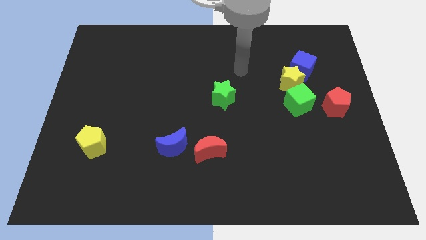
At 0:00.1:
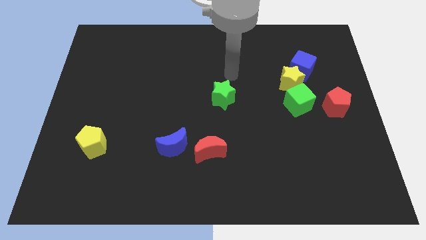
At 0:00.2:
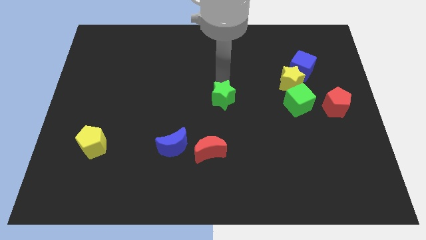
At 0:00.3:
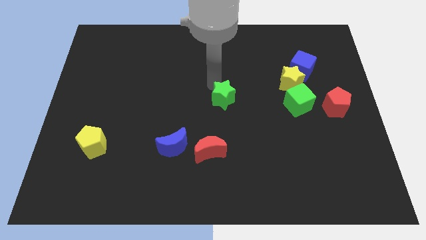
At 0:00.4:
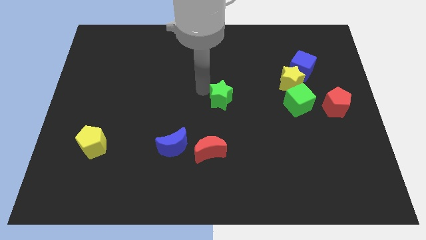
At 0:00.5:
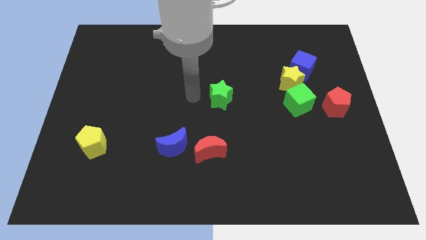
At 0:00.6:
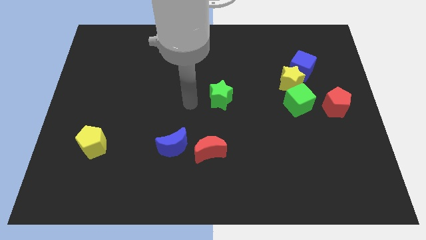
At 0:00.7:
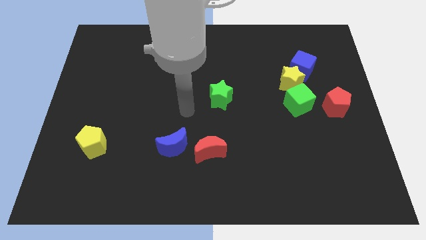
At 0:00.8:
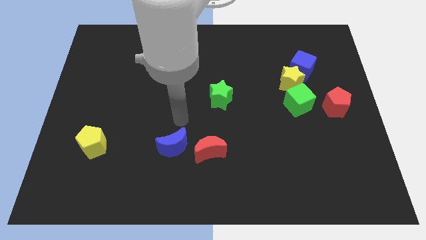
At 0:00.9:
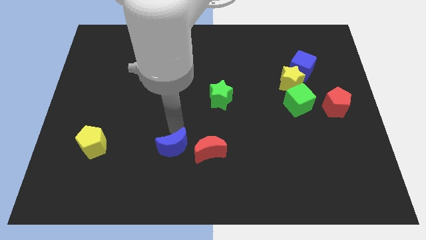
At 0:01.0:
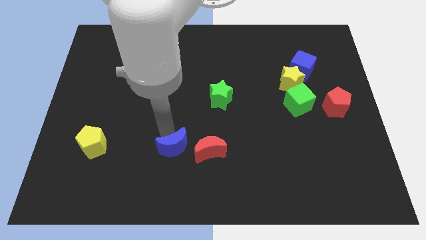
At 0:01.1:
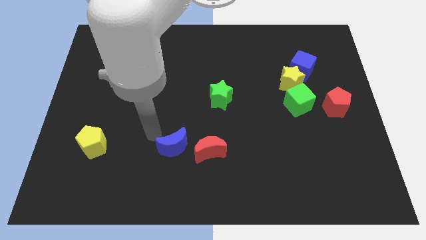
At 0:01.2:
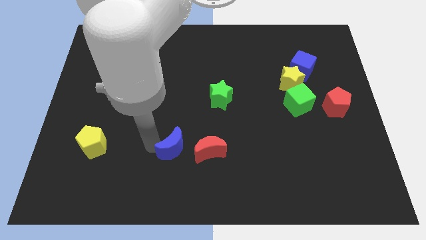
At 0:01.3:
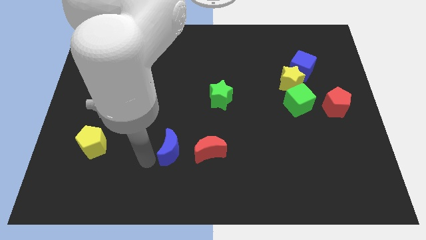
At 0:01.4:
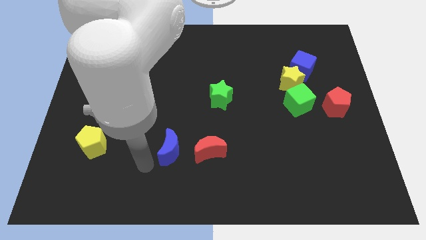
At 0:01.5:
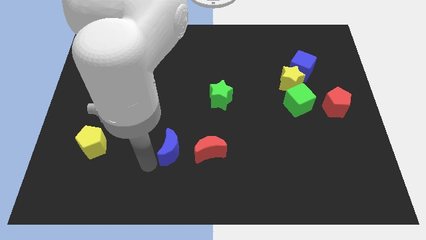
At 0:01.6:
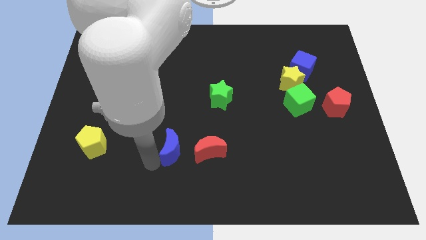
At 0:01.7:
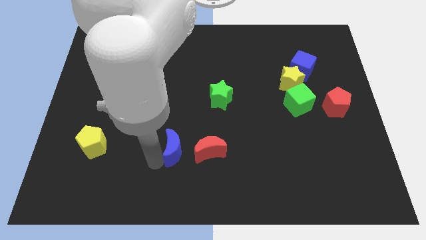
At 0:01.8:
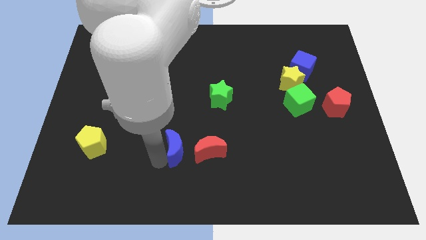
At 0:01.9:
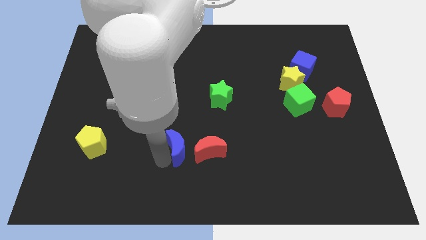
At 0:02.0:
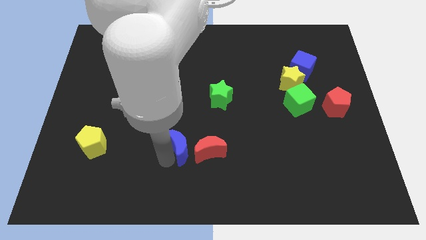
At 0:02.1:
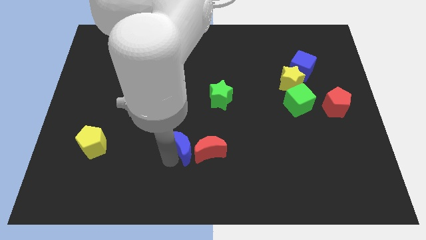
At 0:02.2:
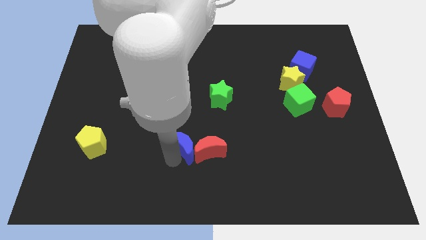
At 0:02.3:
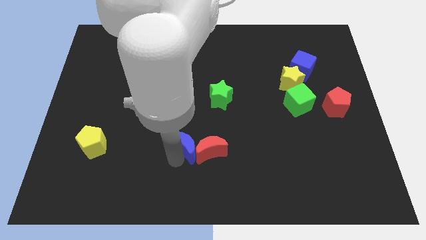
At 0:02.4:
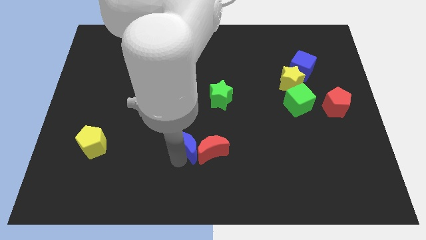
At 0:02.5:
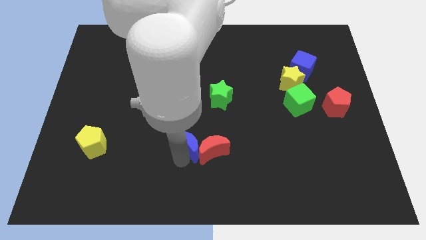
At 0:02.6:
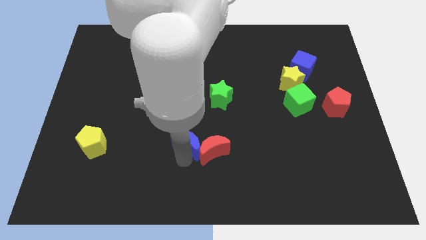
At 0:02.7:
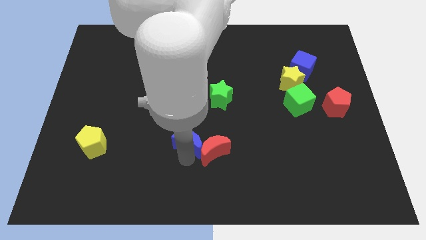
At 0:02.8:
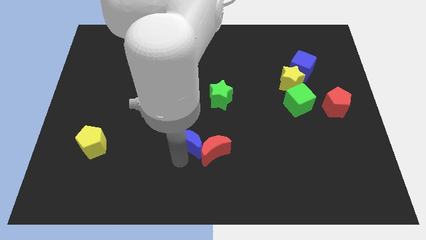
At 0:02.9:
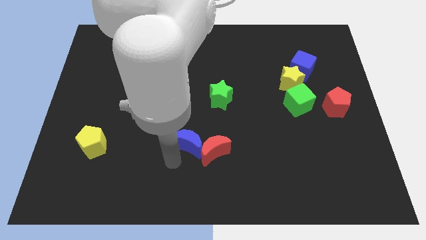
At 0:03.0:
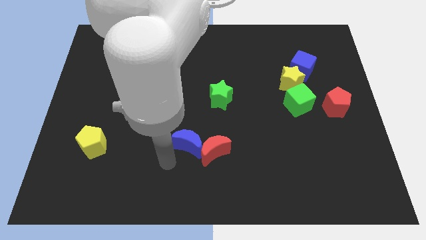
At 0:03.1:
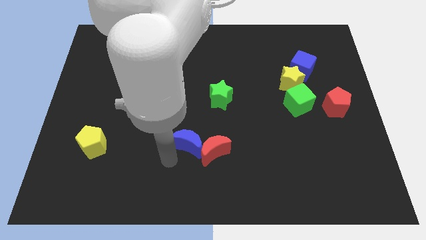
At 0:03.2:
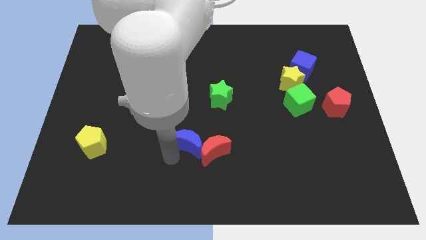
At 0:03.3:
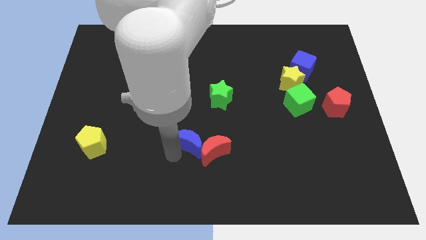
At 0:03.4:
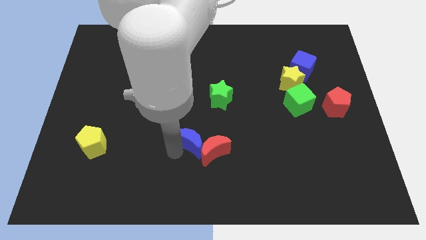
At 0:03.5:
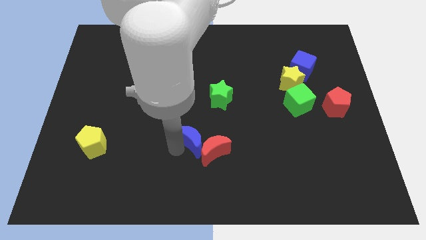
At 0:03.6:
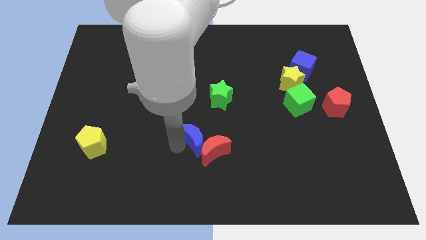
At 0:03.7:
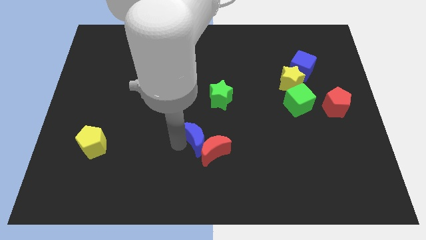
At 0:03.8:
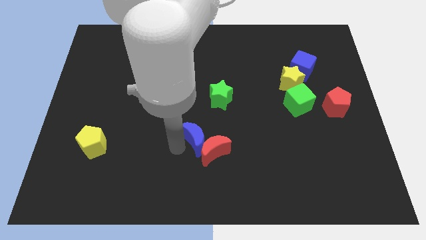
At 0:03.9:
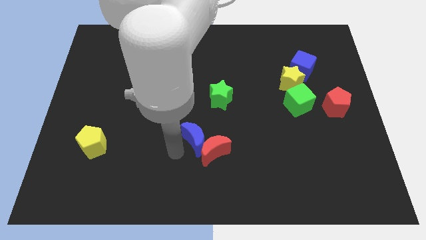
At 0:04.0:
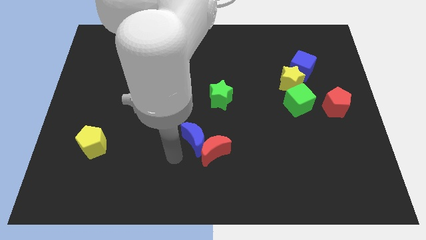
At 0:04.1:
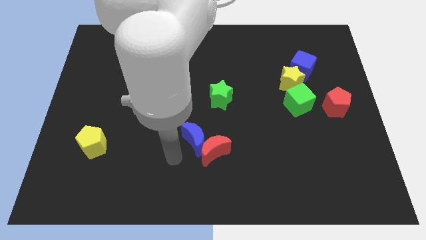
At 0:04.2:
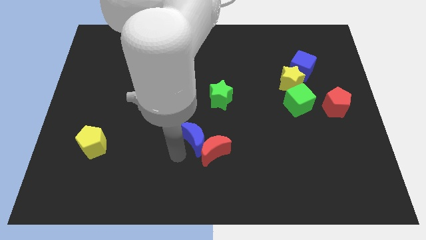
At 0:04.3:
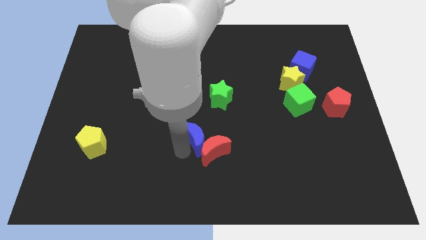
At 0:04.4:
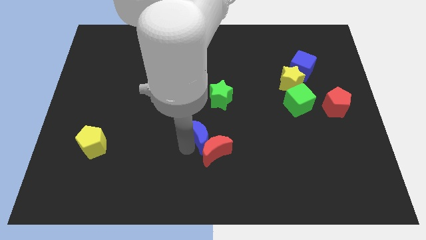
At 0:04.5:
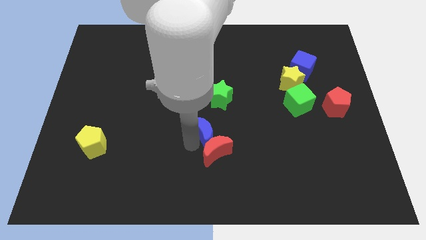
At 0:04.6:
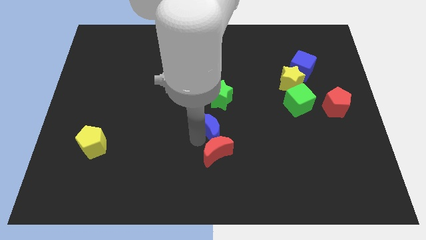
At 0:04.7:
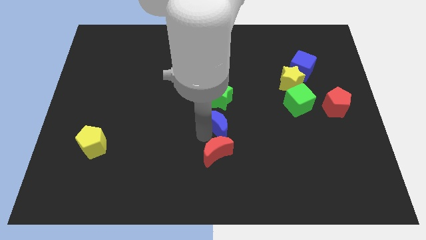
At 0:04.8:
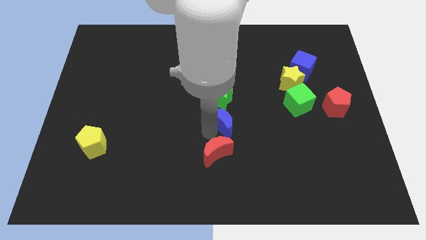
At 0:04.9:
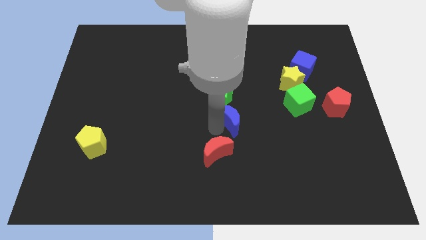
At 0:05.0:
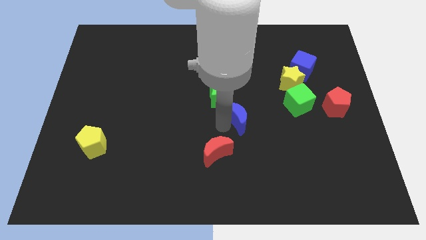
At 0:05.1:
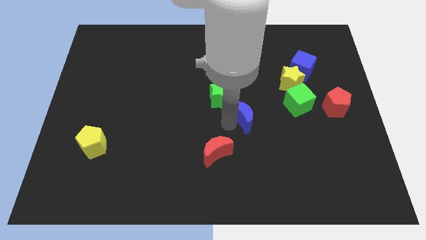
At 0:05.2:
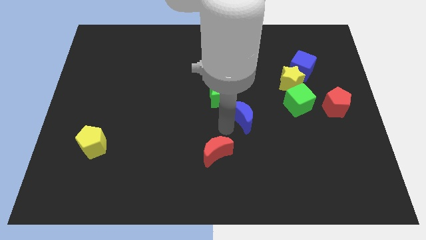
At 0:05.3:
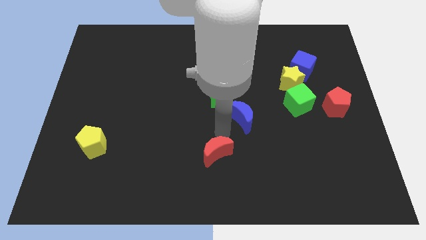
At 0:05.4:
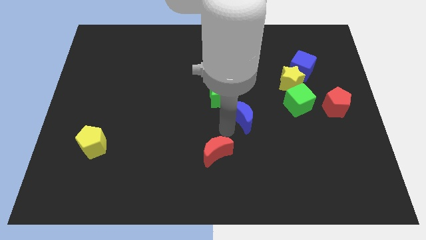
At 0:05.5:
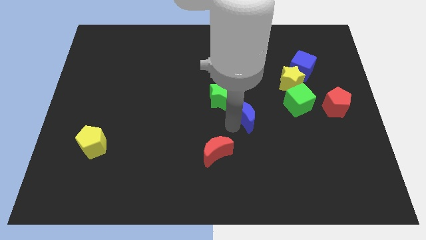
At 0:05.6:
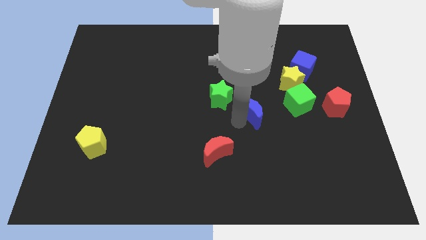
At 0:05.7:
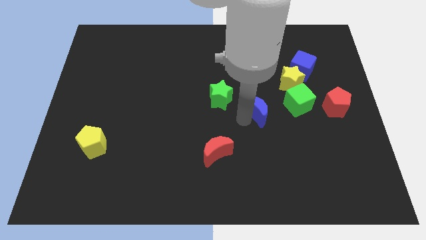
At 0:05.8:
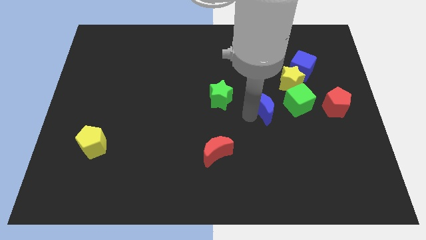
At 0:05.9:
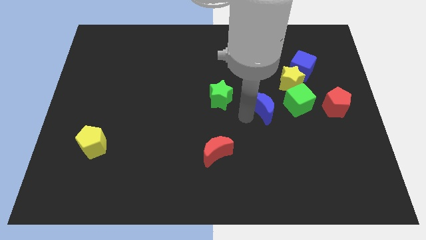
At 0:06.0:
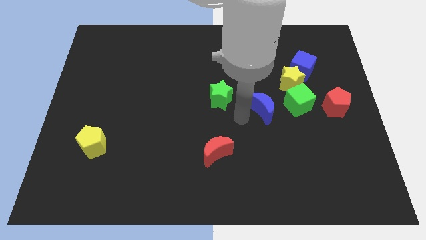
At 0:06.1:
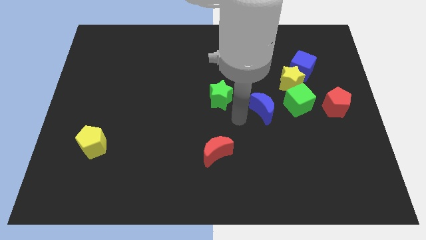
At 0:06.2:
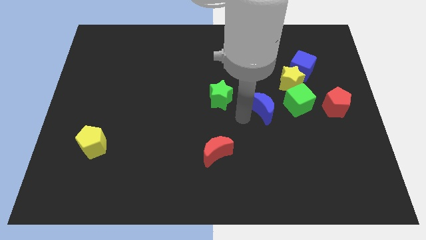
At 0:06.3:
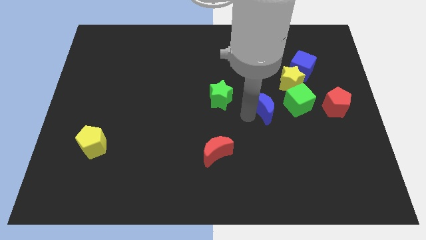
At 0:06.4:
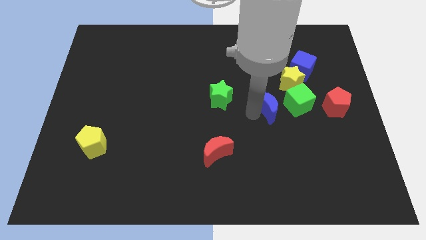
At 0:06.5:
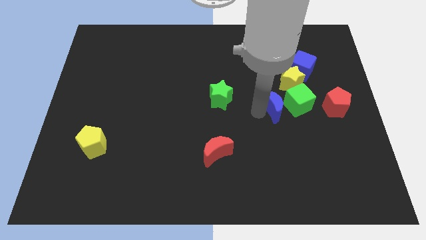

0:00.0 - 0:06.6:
move the blue moon close to the green cube

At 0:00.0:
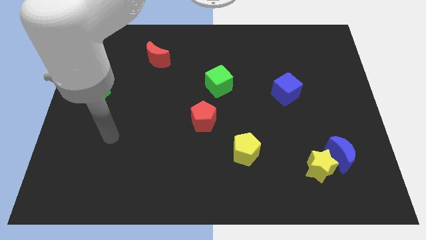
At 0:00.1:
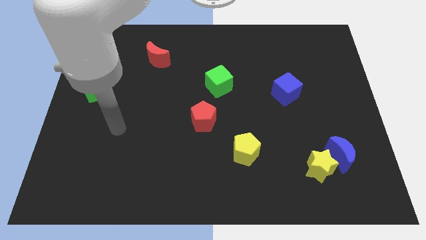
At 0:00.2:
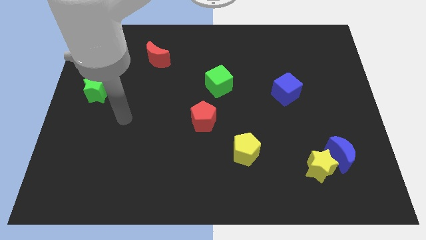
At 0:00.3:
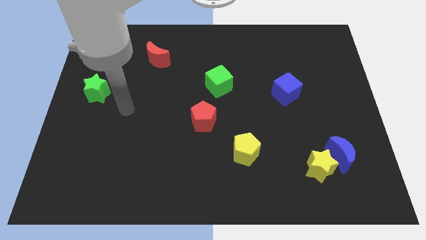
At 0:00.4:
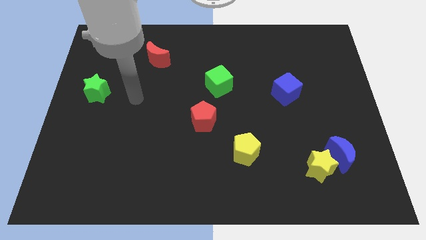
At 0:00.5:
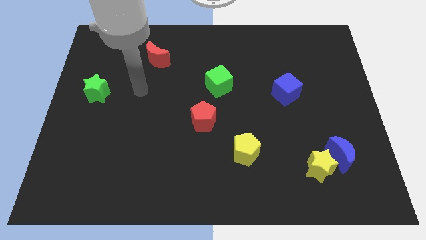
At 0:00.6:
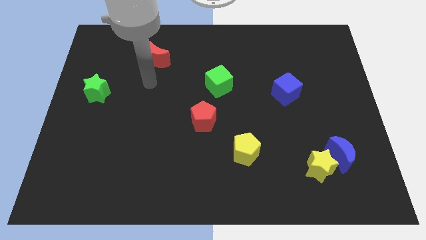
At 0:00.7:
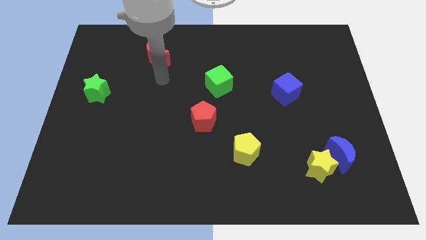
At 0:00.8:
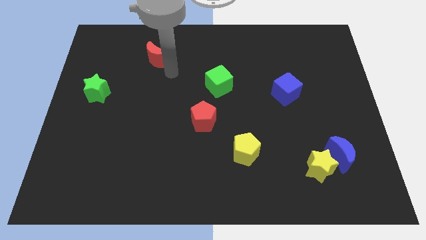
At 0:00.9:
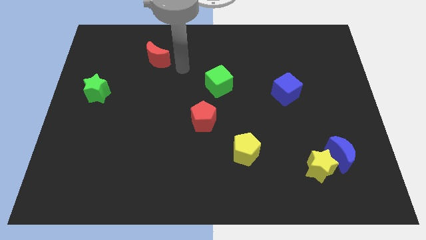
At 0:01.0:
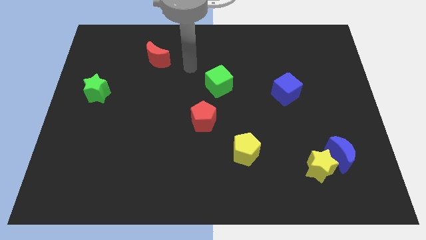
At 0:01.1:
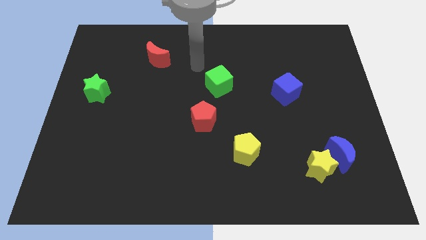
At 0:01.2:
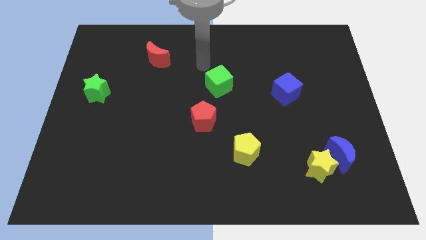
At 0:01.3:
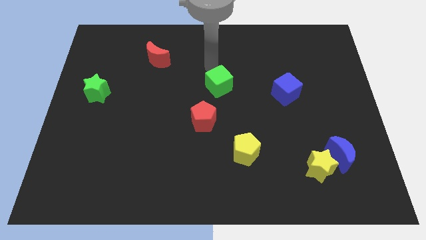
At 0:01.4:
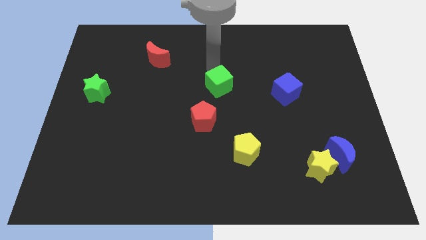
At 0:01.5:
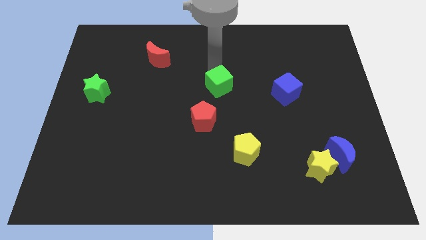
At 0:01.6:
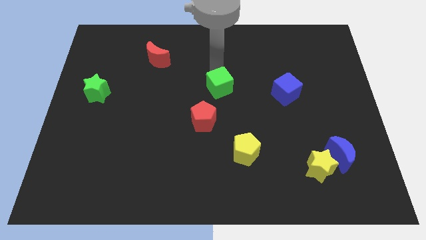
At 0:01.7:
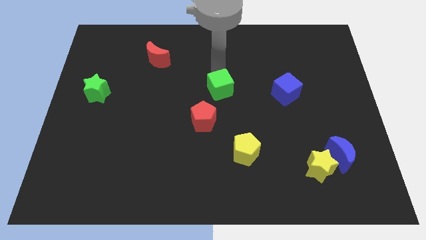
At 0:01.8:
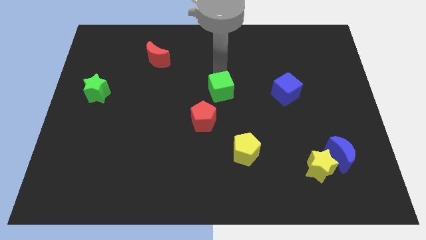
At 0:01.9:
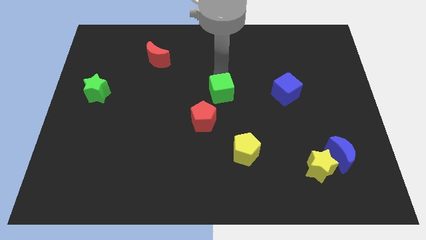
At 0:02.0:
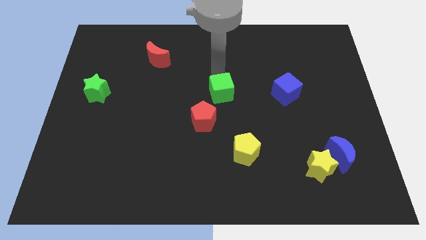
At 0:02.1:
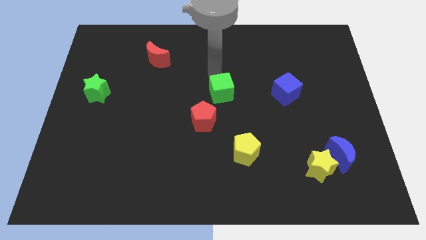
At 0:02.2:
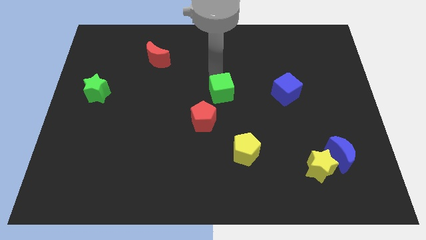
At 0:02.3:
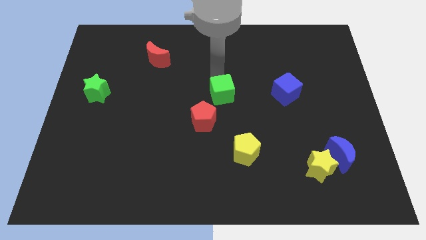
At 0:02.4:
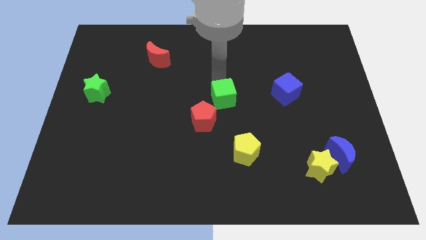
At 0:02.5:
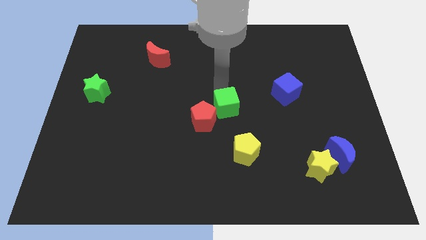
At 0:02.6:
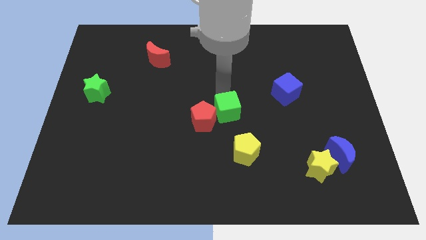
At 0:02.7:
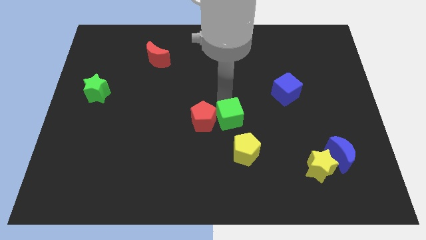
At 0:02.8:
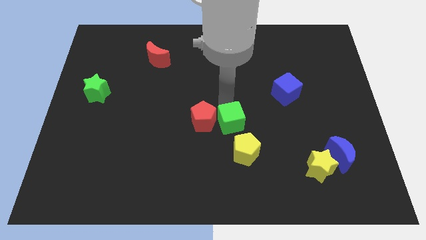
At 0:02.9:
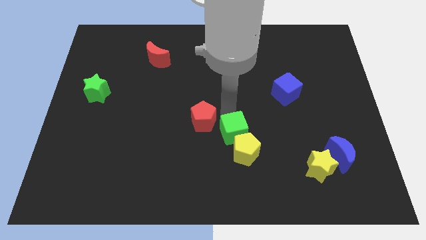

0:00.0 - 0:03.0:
move the green cube close to the yellow pentagon
